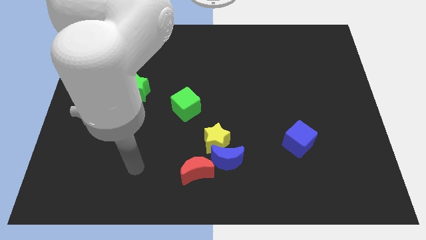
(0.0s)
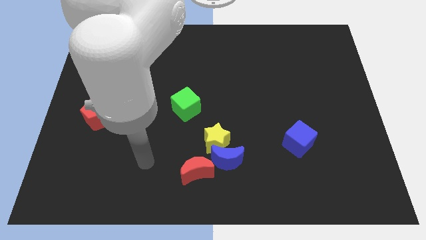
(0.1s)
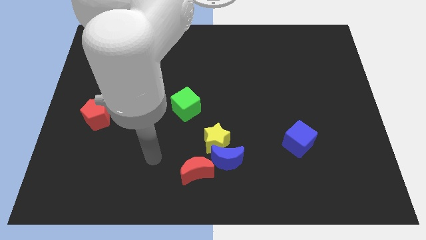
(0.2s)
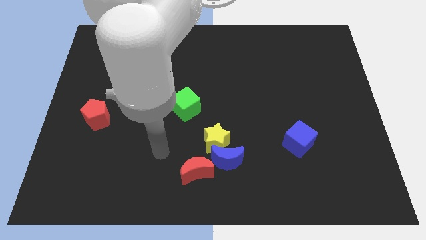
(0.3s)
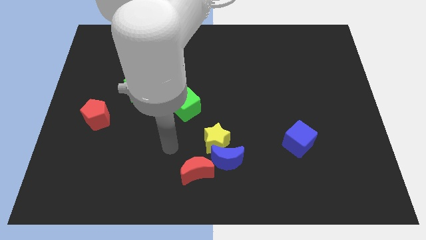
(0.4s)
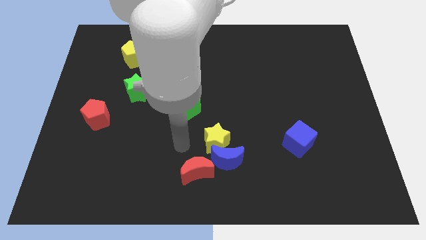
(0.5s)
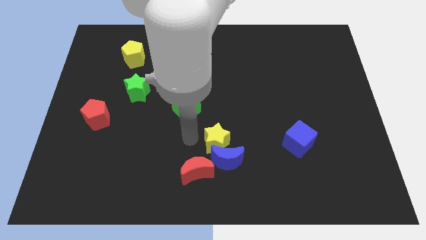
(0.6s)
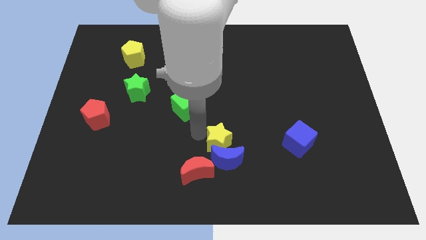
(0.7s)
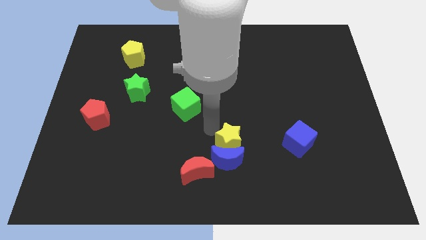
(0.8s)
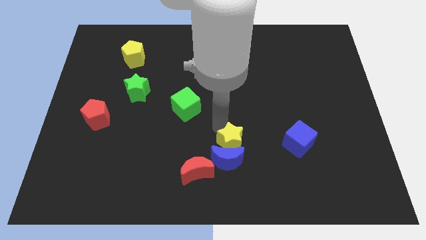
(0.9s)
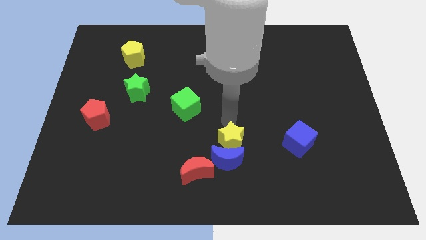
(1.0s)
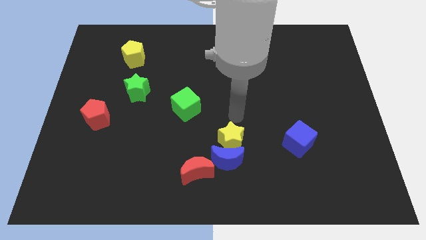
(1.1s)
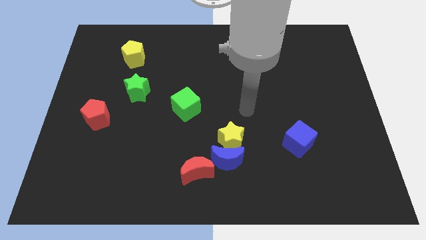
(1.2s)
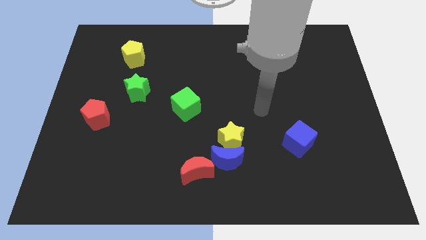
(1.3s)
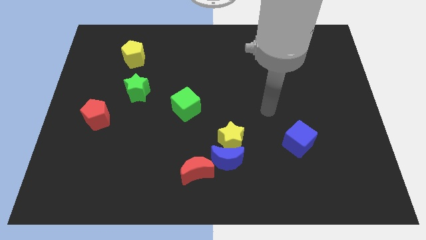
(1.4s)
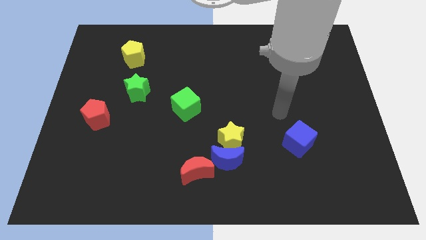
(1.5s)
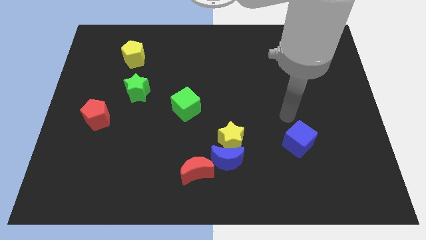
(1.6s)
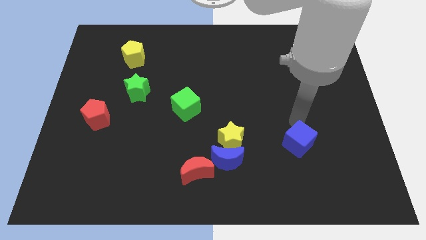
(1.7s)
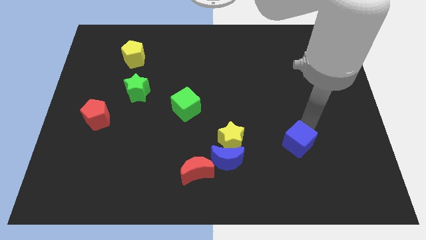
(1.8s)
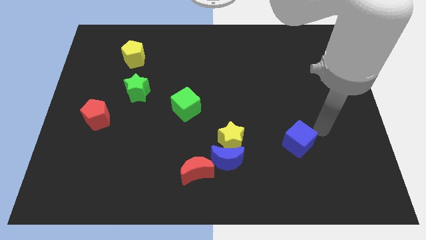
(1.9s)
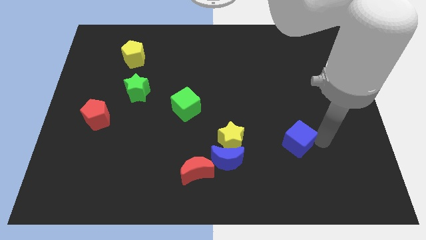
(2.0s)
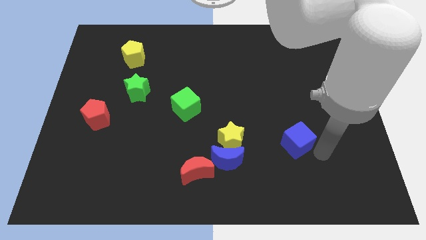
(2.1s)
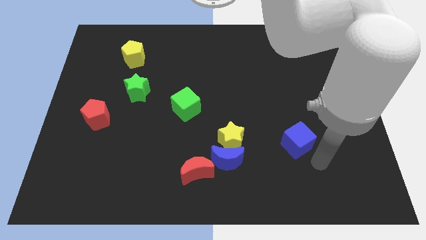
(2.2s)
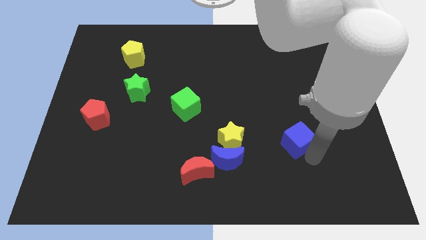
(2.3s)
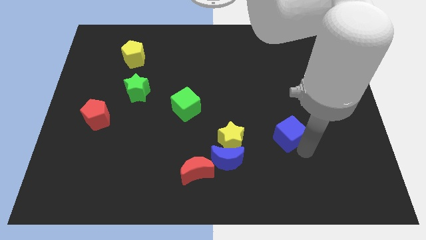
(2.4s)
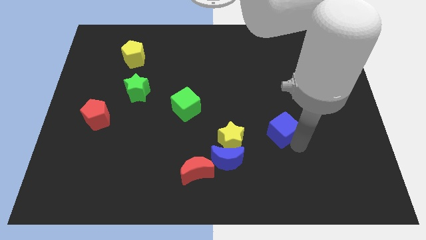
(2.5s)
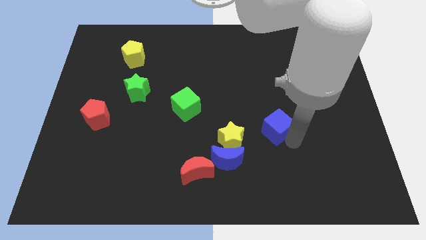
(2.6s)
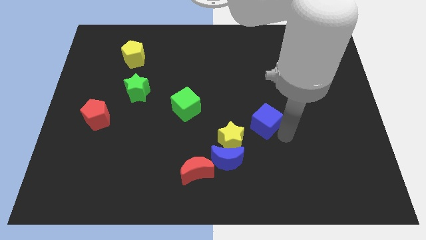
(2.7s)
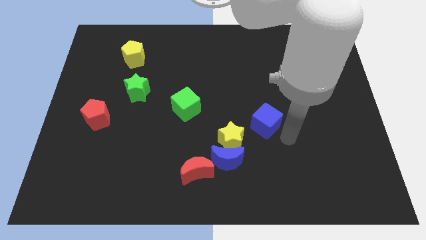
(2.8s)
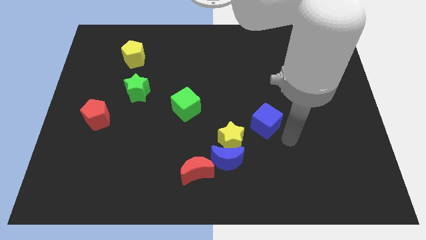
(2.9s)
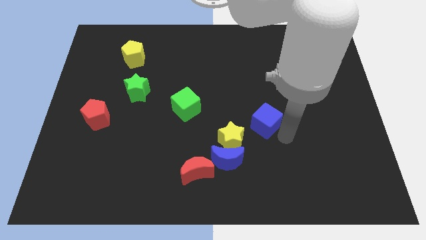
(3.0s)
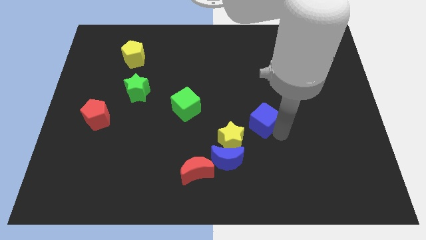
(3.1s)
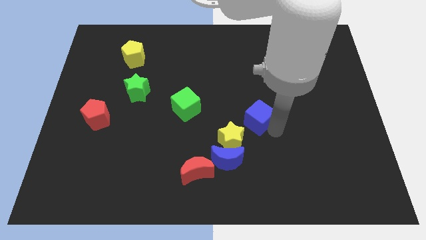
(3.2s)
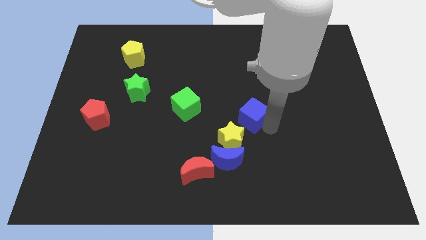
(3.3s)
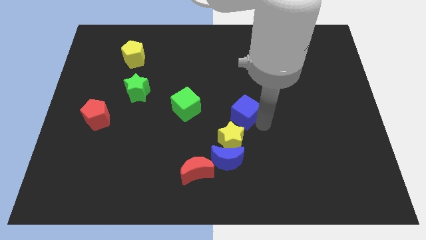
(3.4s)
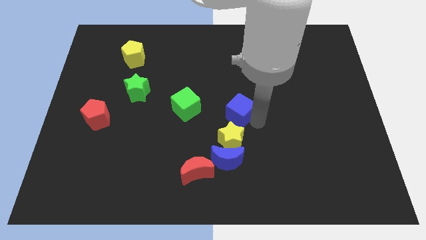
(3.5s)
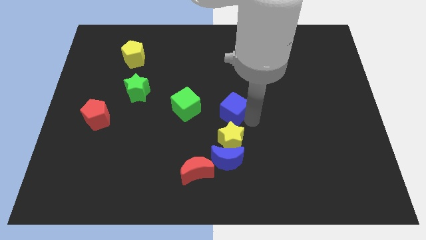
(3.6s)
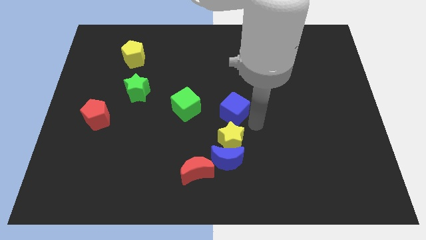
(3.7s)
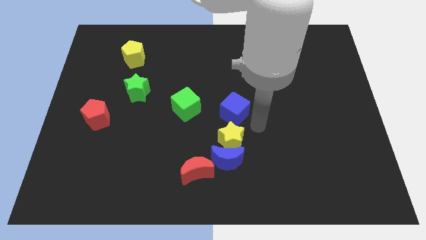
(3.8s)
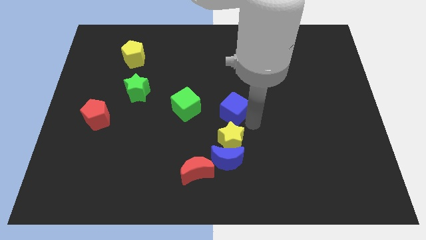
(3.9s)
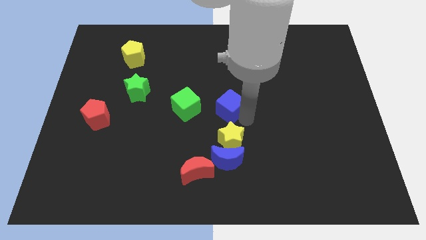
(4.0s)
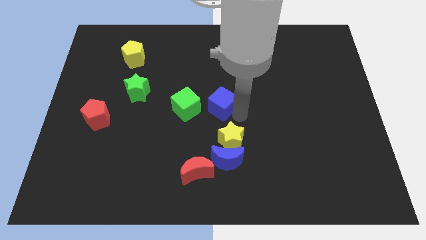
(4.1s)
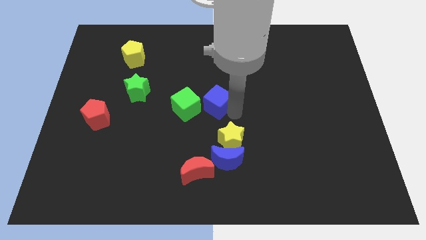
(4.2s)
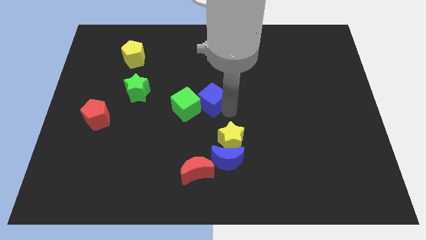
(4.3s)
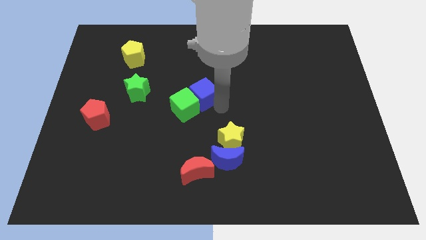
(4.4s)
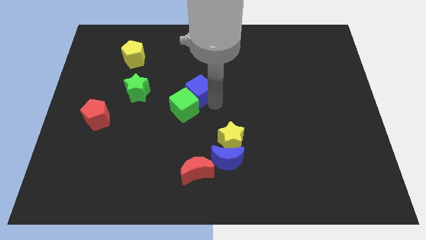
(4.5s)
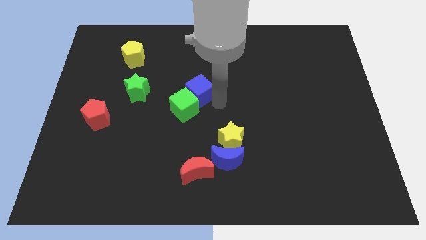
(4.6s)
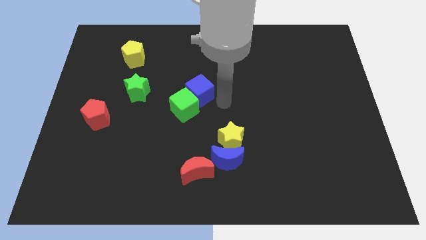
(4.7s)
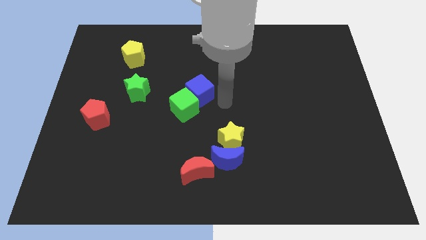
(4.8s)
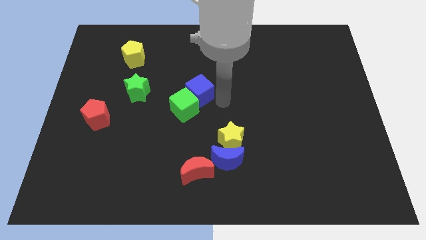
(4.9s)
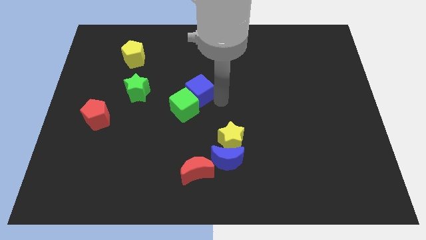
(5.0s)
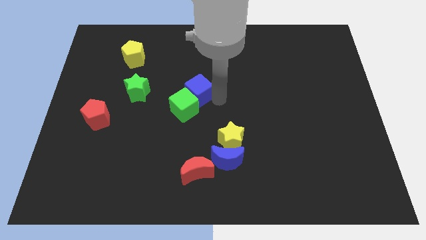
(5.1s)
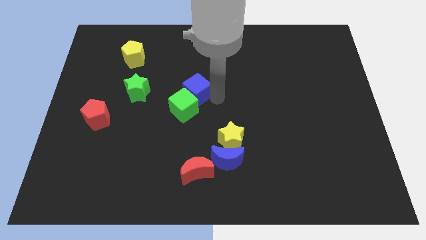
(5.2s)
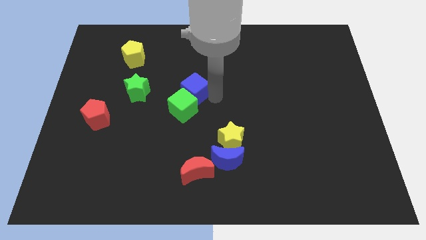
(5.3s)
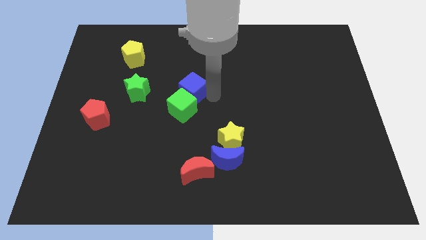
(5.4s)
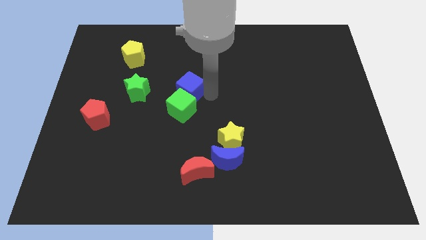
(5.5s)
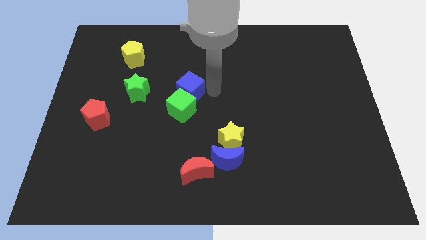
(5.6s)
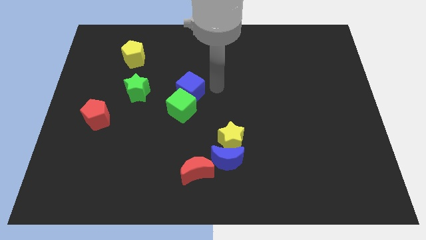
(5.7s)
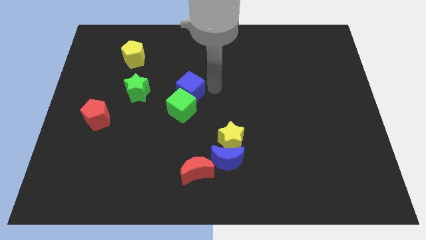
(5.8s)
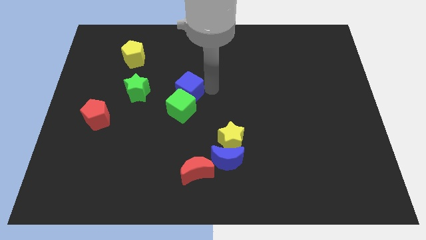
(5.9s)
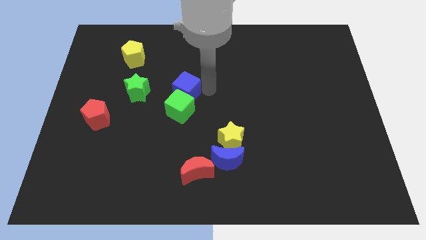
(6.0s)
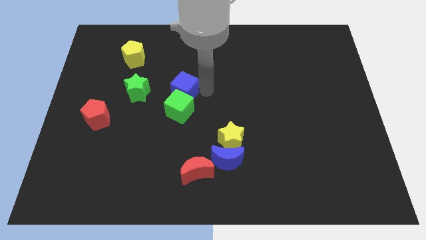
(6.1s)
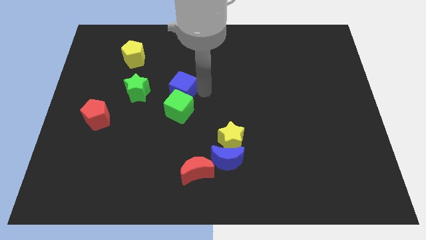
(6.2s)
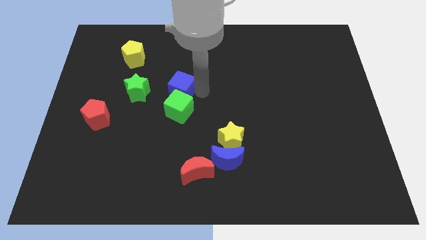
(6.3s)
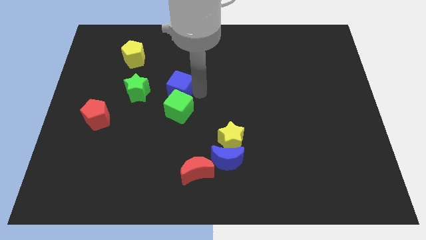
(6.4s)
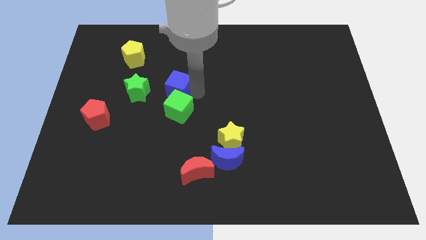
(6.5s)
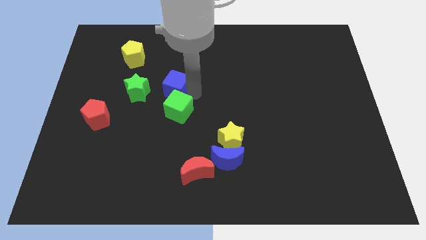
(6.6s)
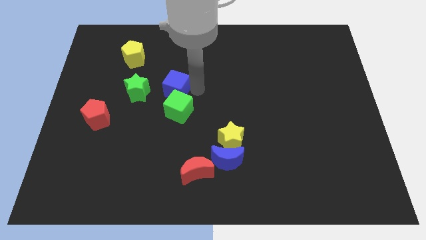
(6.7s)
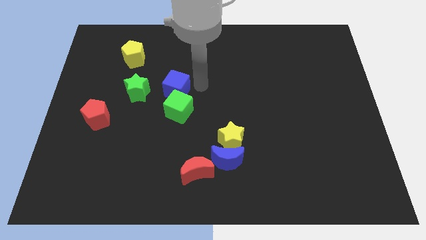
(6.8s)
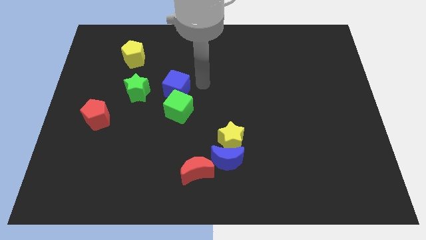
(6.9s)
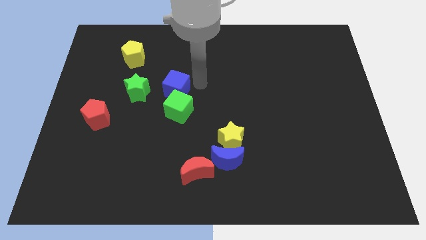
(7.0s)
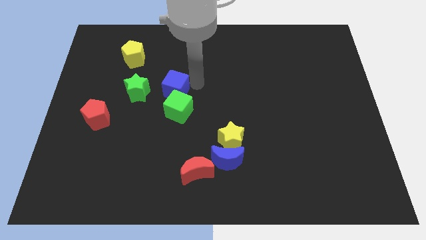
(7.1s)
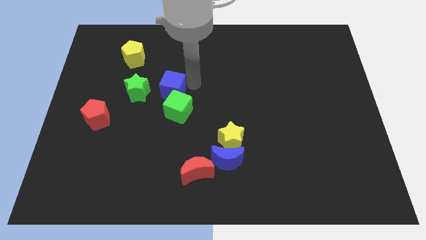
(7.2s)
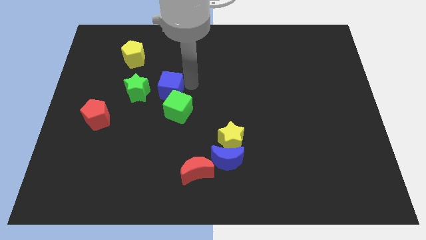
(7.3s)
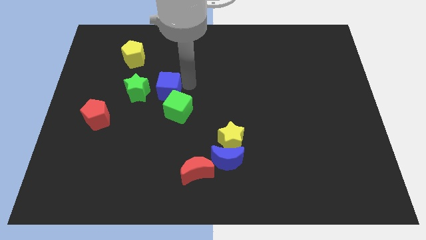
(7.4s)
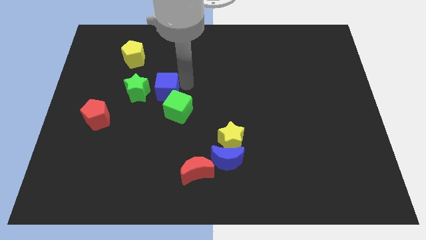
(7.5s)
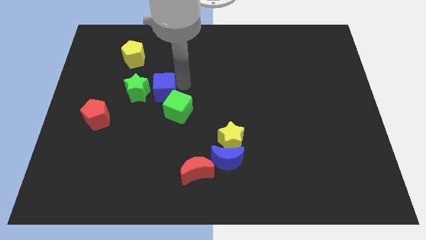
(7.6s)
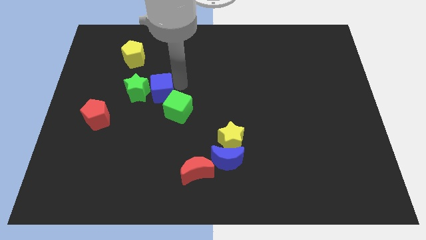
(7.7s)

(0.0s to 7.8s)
slide the blue cube to the green star
